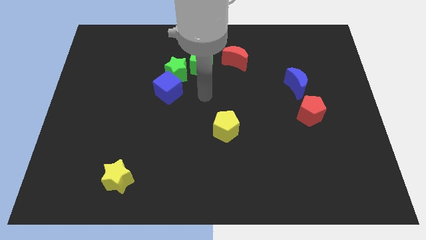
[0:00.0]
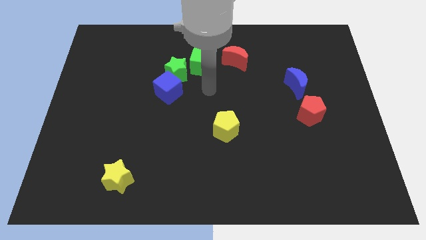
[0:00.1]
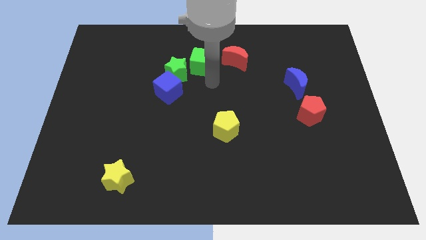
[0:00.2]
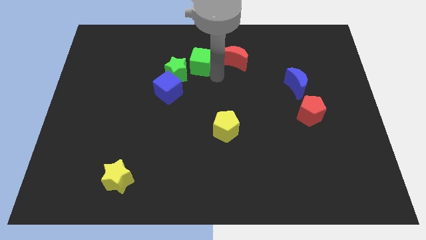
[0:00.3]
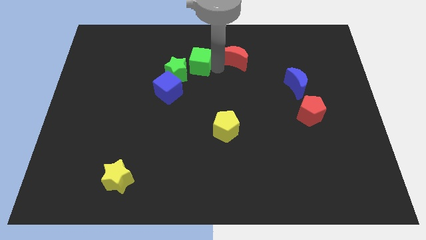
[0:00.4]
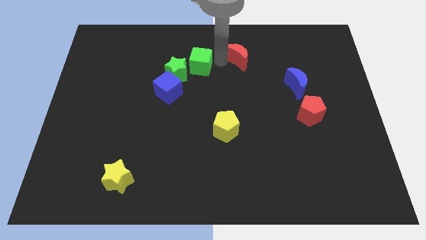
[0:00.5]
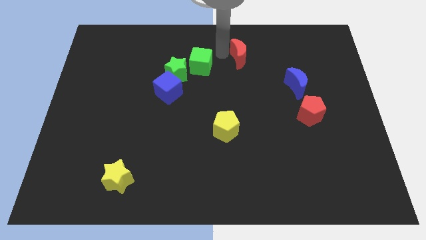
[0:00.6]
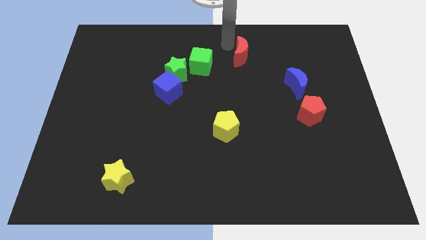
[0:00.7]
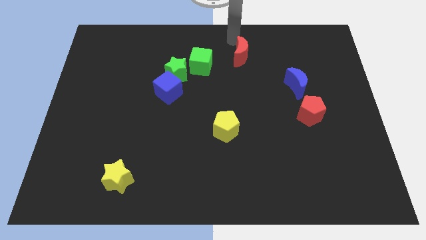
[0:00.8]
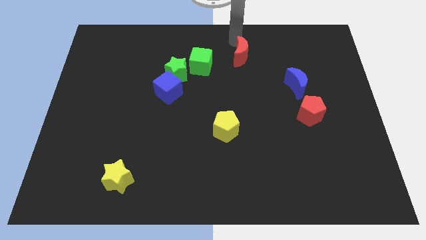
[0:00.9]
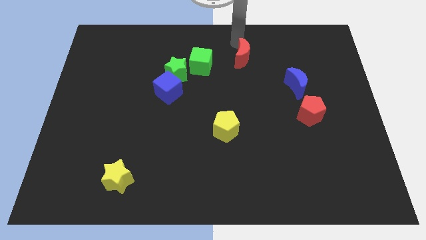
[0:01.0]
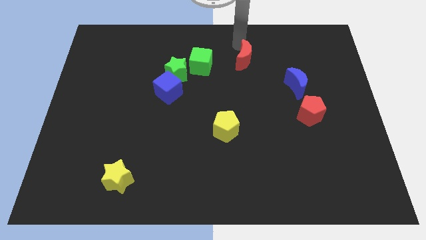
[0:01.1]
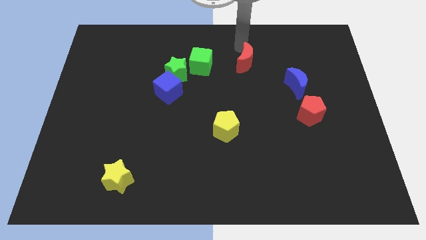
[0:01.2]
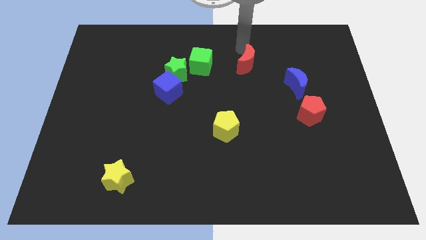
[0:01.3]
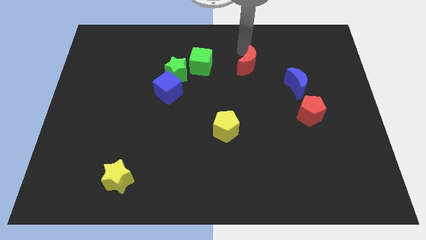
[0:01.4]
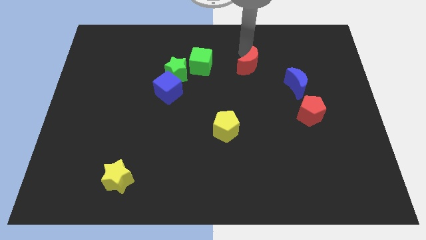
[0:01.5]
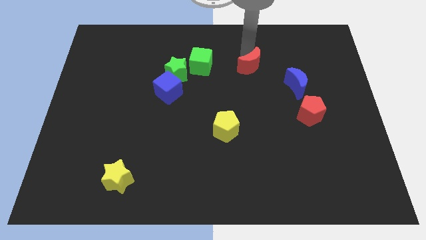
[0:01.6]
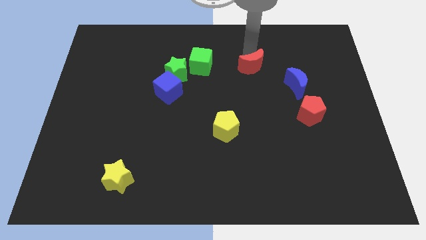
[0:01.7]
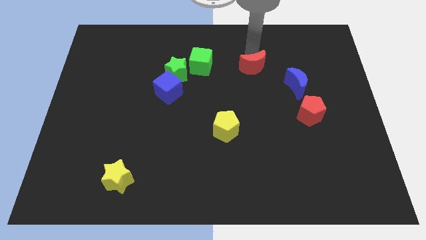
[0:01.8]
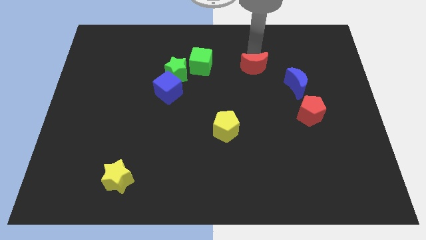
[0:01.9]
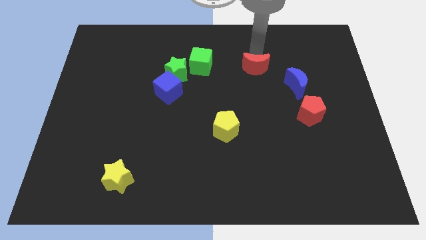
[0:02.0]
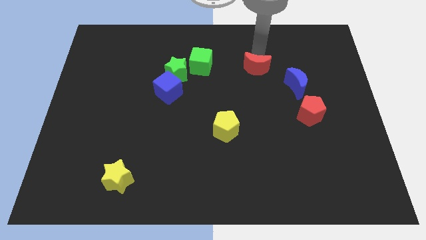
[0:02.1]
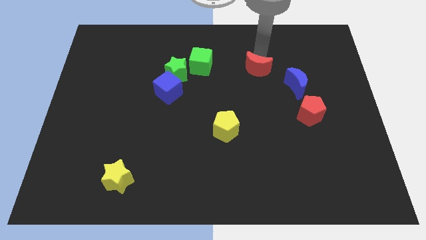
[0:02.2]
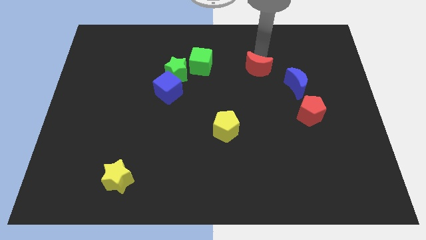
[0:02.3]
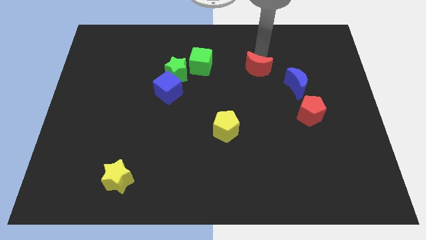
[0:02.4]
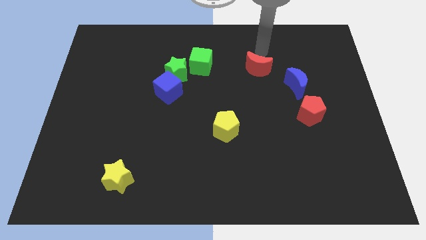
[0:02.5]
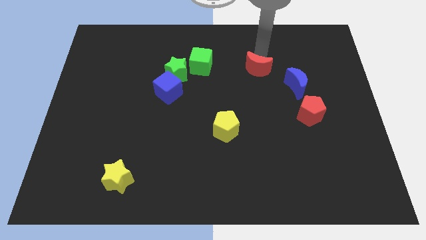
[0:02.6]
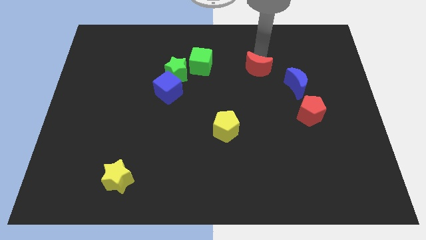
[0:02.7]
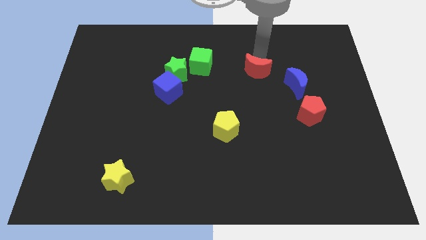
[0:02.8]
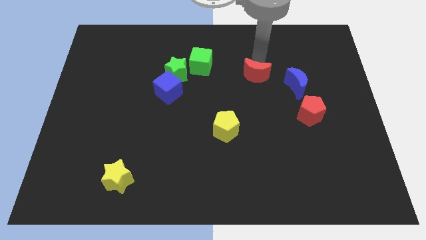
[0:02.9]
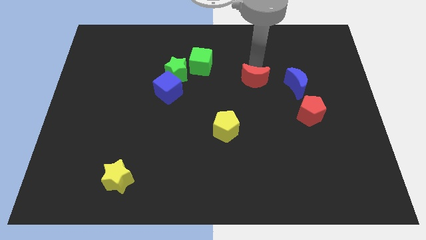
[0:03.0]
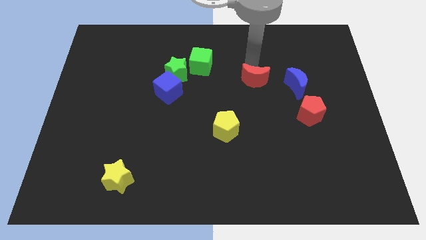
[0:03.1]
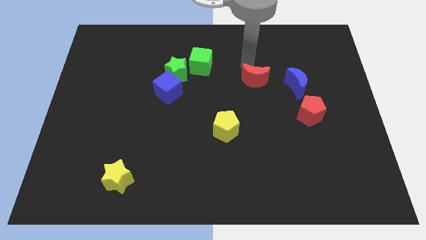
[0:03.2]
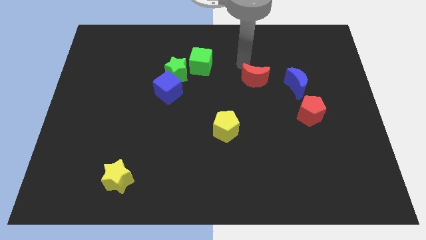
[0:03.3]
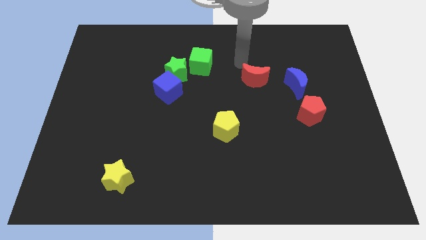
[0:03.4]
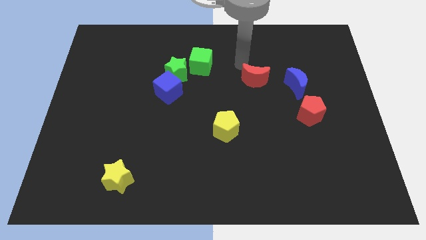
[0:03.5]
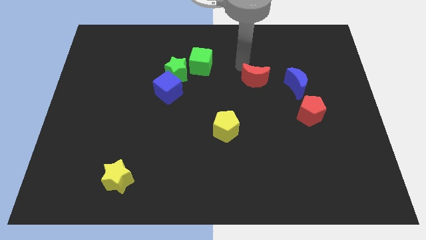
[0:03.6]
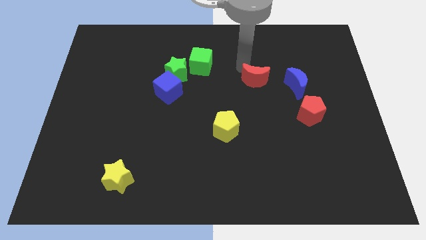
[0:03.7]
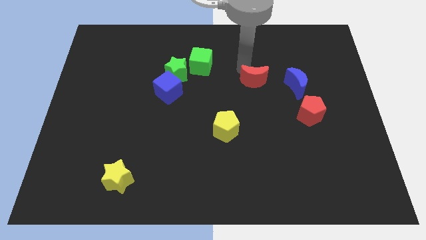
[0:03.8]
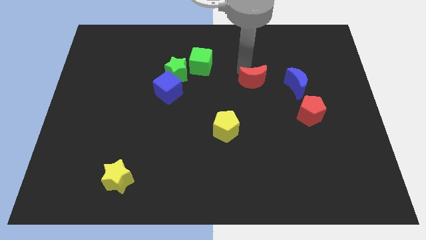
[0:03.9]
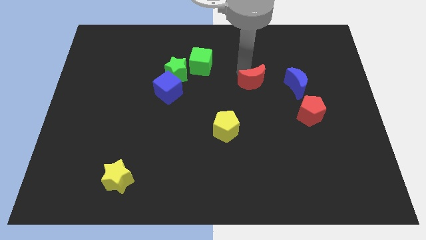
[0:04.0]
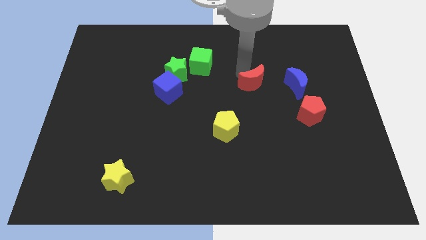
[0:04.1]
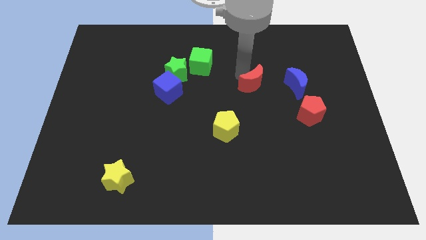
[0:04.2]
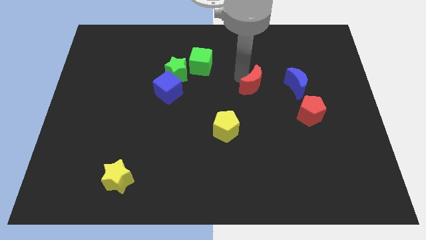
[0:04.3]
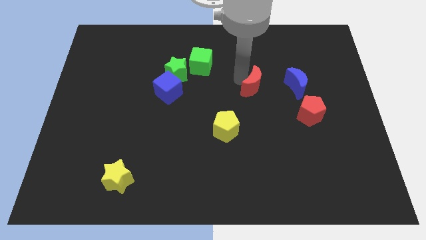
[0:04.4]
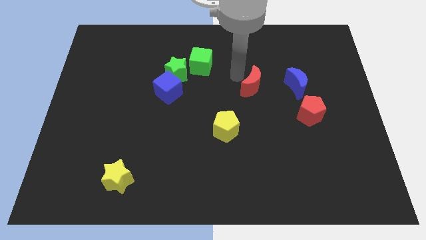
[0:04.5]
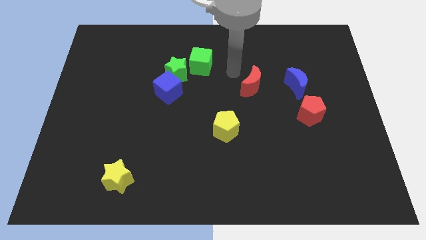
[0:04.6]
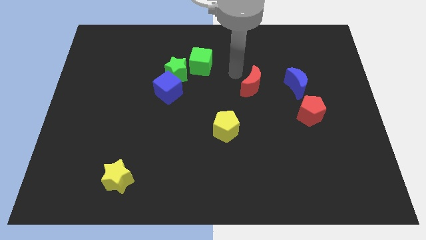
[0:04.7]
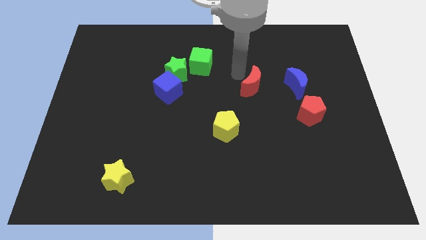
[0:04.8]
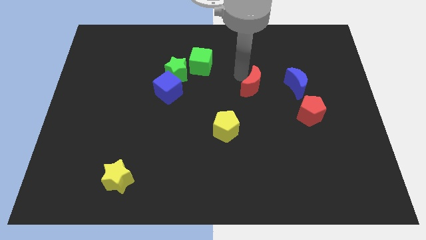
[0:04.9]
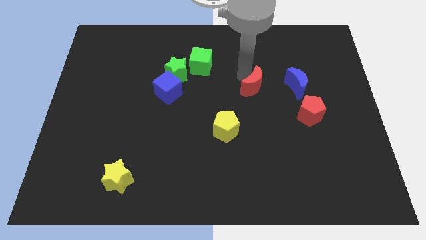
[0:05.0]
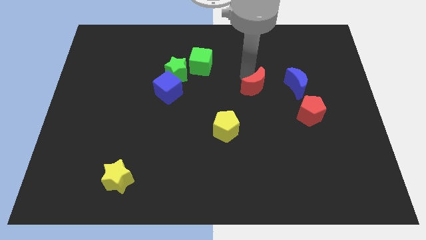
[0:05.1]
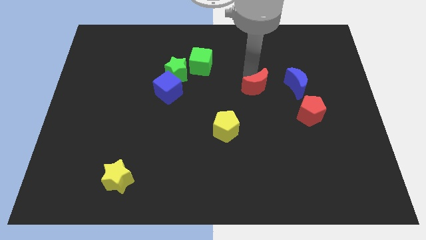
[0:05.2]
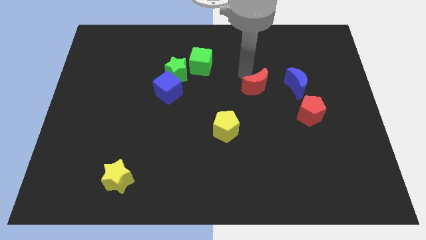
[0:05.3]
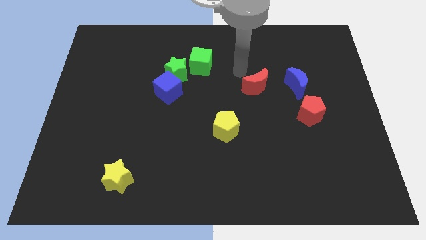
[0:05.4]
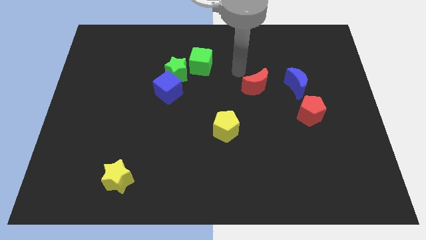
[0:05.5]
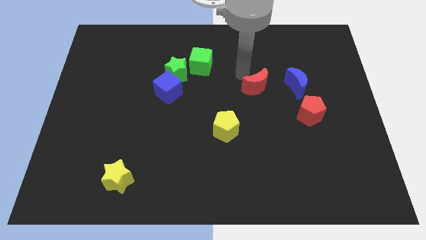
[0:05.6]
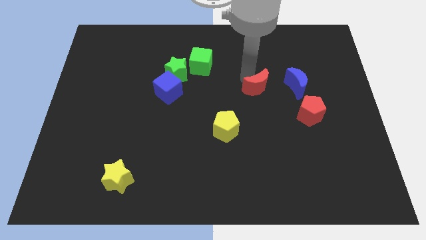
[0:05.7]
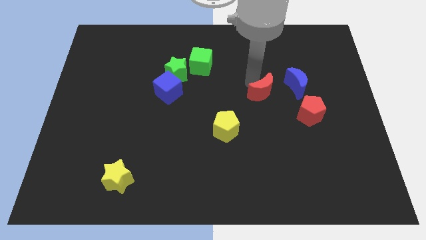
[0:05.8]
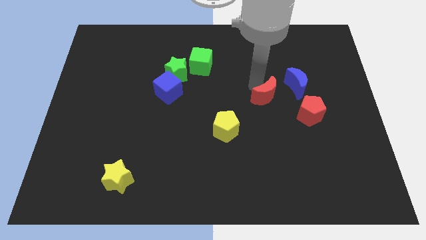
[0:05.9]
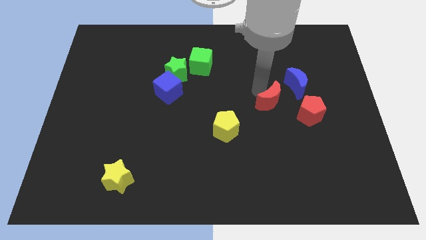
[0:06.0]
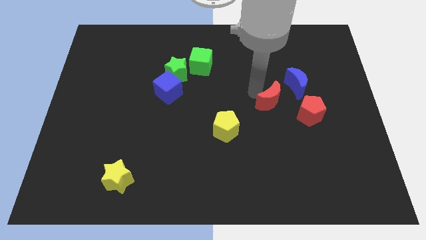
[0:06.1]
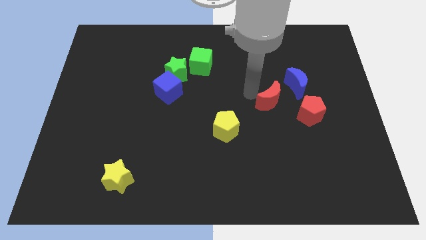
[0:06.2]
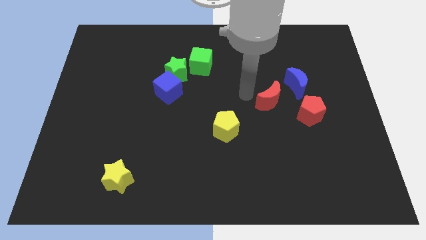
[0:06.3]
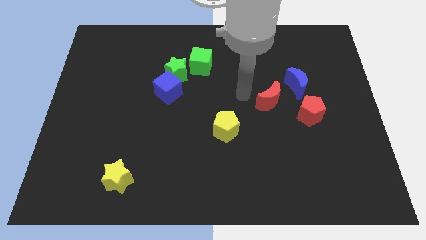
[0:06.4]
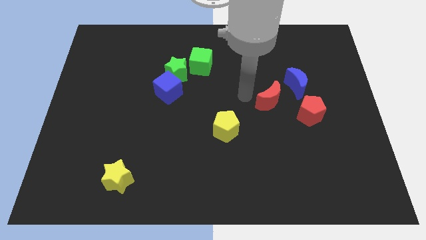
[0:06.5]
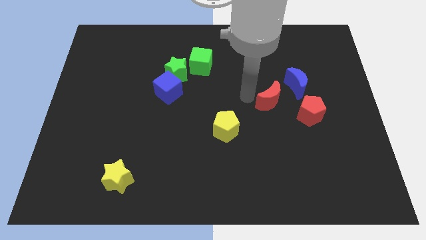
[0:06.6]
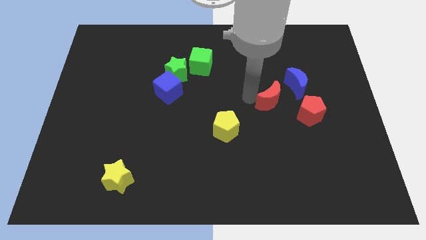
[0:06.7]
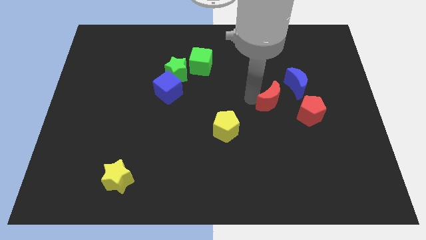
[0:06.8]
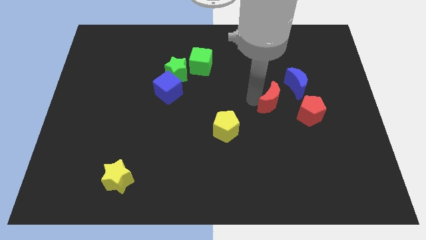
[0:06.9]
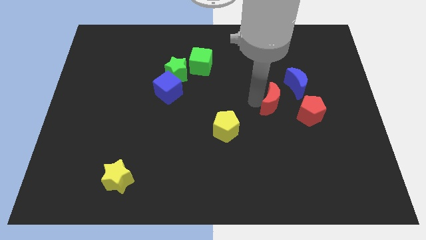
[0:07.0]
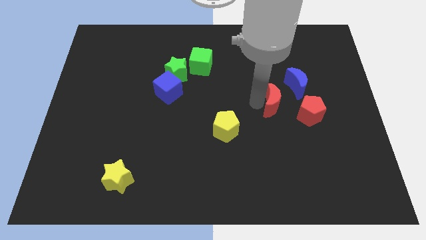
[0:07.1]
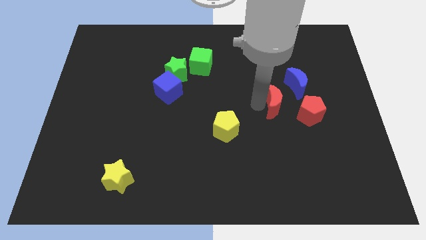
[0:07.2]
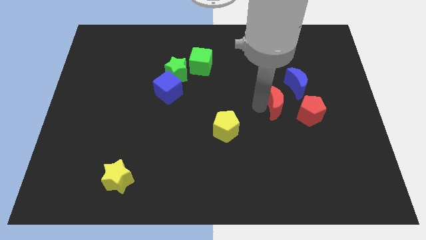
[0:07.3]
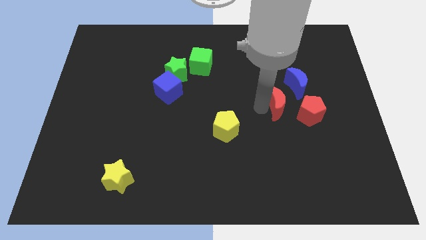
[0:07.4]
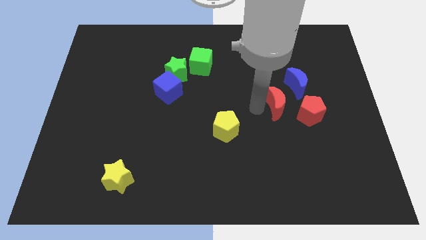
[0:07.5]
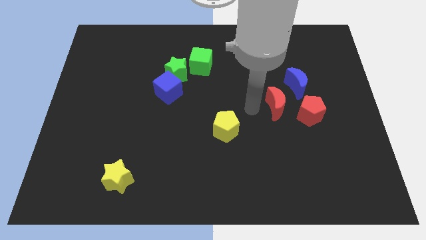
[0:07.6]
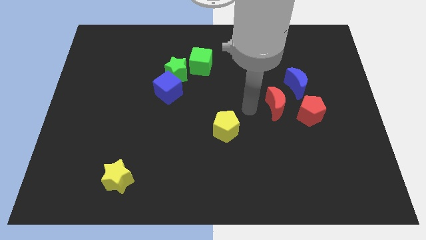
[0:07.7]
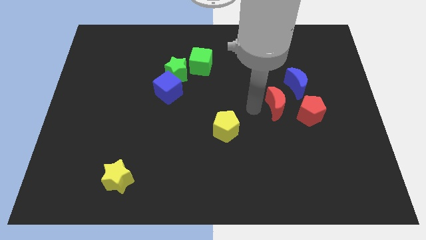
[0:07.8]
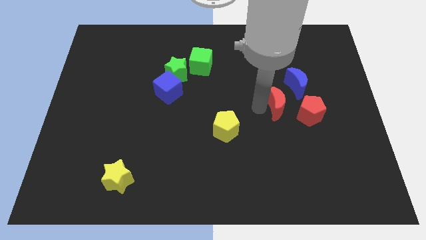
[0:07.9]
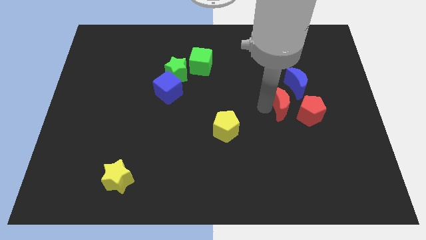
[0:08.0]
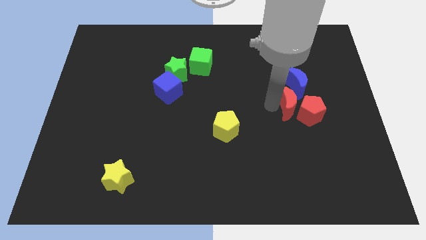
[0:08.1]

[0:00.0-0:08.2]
put the red moon to the red pentagon

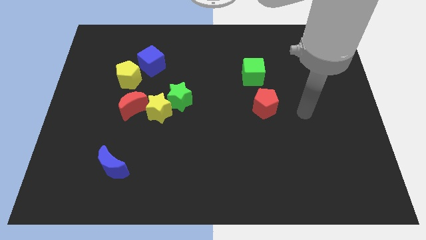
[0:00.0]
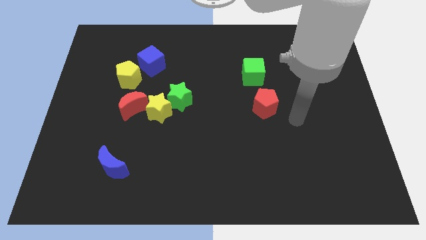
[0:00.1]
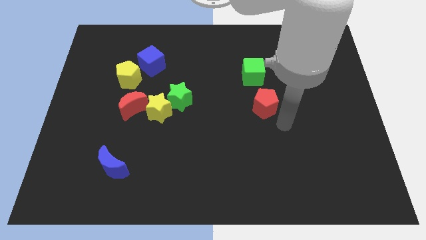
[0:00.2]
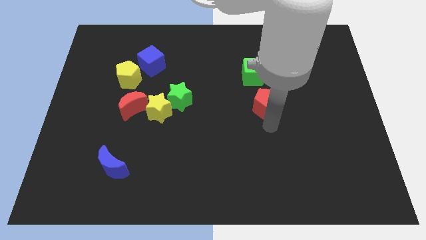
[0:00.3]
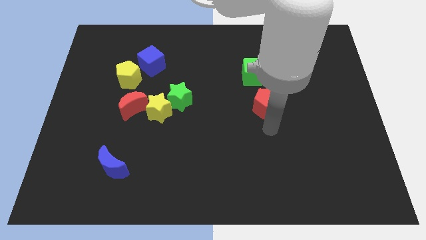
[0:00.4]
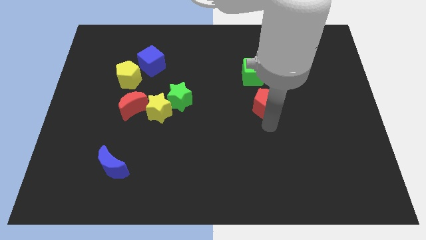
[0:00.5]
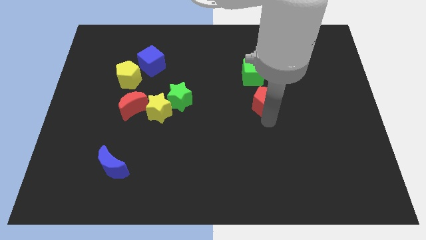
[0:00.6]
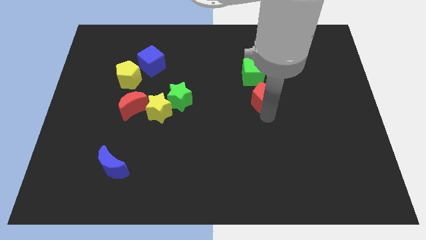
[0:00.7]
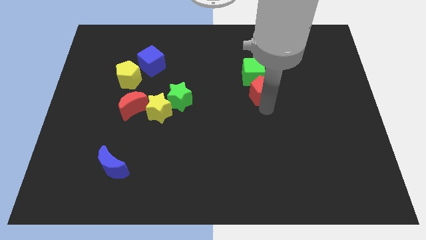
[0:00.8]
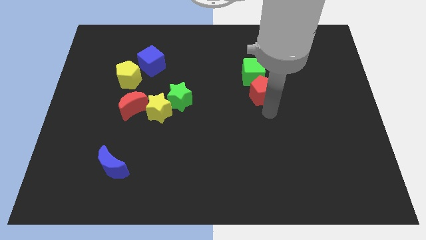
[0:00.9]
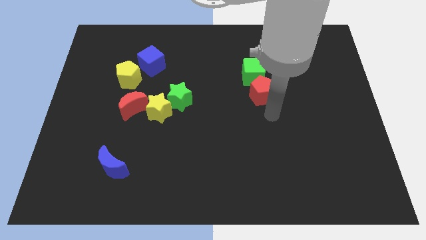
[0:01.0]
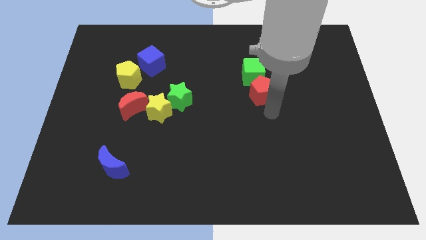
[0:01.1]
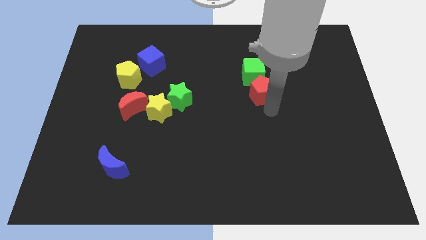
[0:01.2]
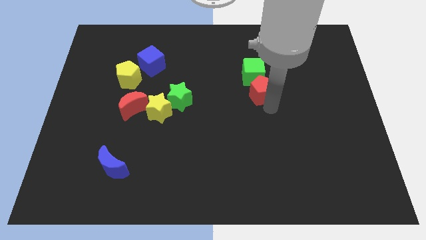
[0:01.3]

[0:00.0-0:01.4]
put the red pentagon towards the green cube
